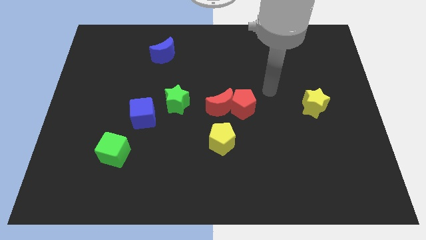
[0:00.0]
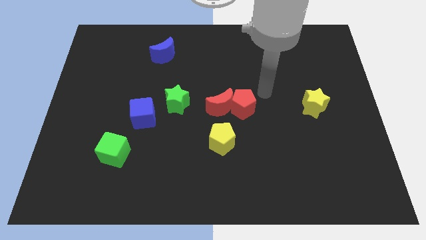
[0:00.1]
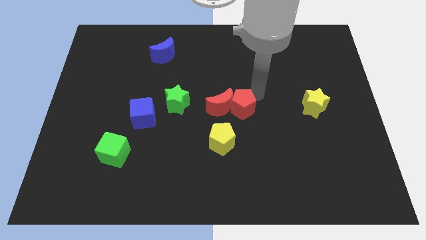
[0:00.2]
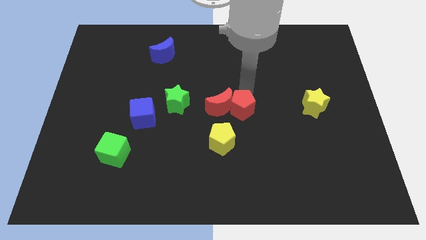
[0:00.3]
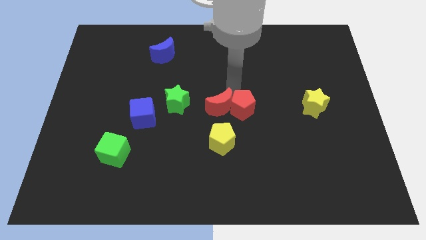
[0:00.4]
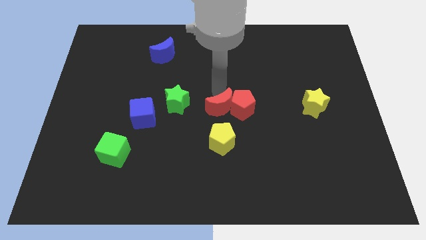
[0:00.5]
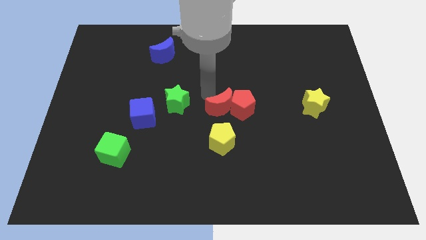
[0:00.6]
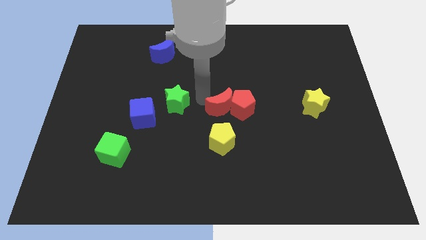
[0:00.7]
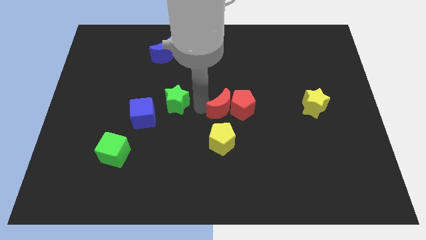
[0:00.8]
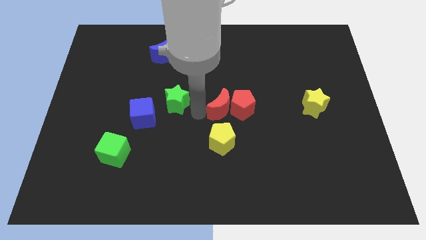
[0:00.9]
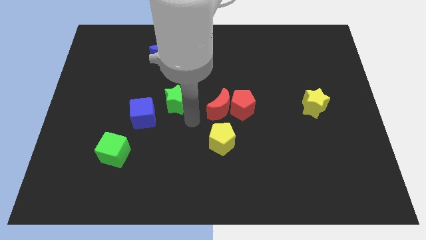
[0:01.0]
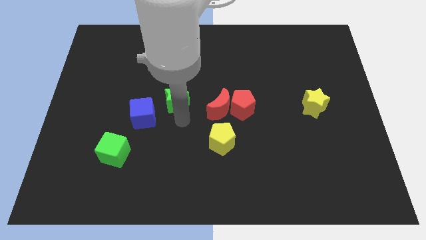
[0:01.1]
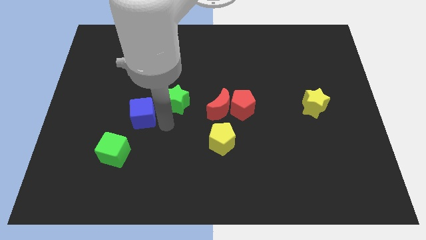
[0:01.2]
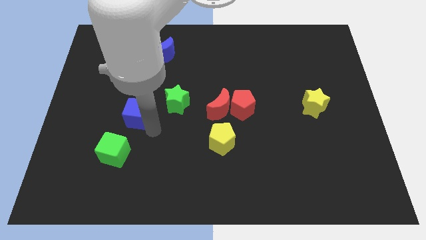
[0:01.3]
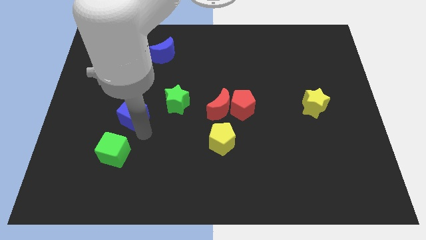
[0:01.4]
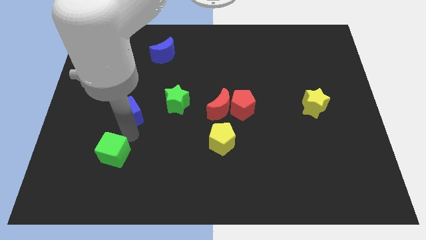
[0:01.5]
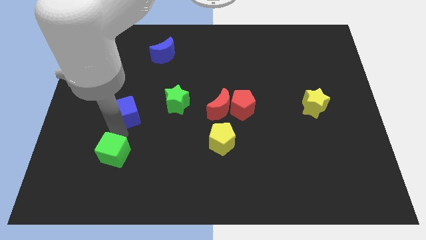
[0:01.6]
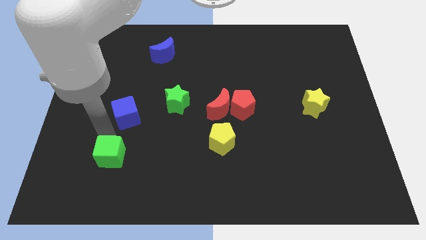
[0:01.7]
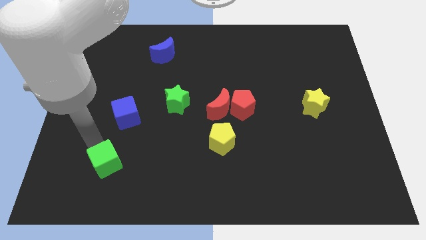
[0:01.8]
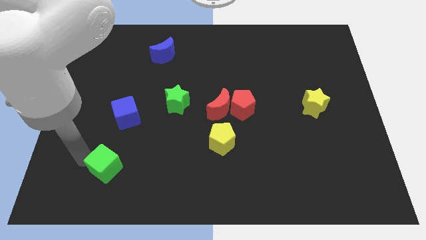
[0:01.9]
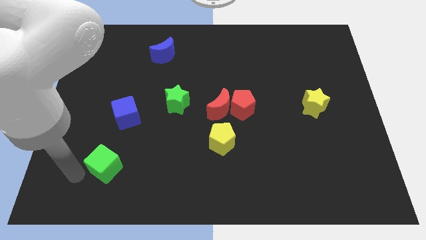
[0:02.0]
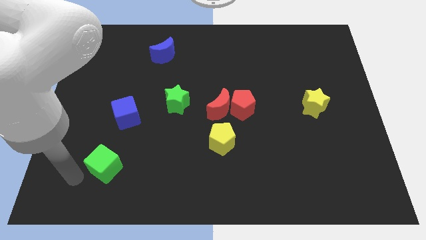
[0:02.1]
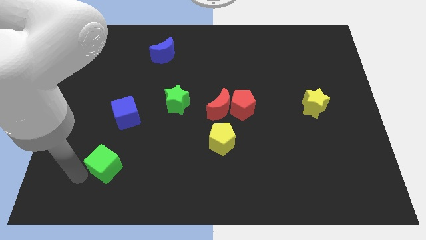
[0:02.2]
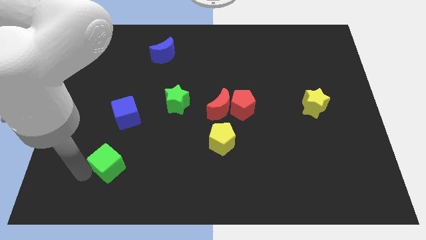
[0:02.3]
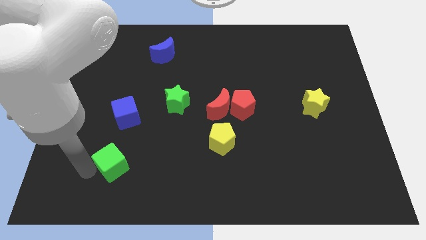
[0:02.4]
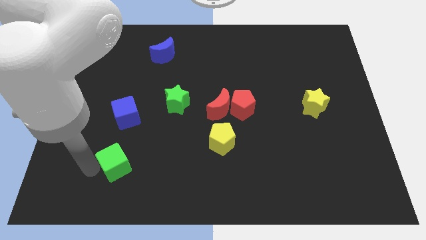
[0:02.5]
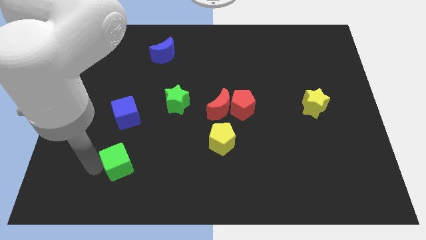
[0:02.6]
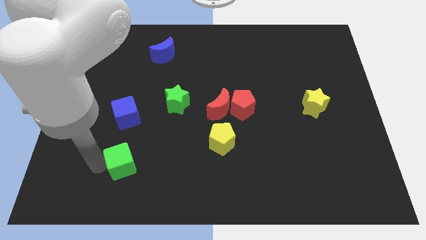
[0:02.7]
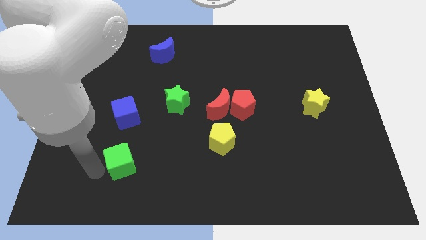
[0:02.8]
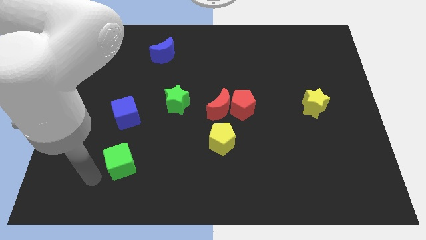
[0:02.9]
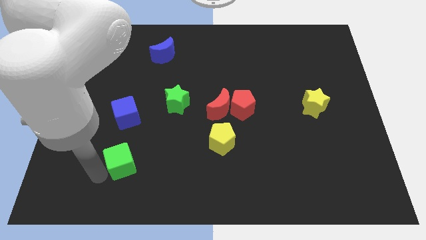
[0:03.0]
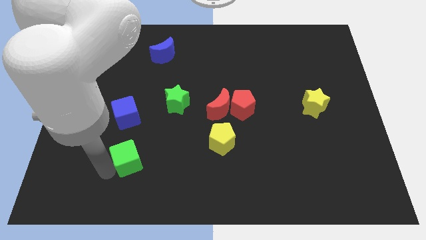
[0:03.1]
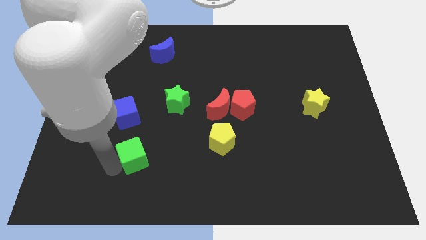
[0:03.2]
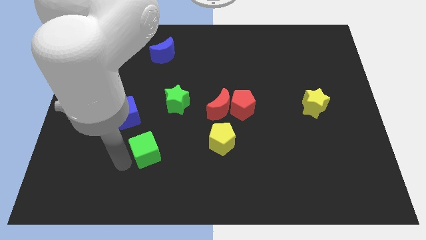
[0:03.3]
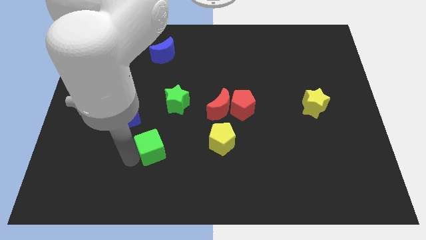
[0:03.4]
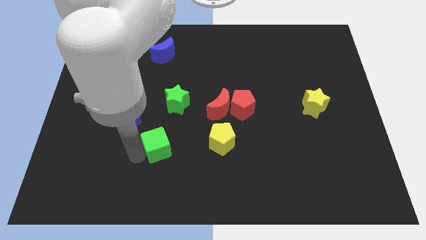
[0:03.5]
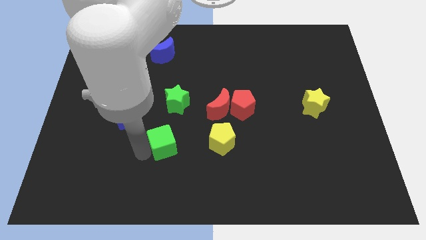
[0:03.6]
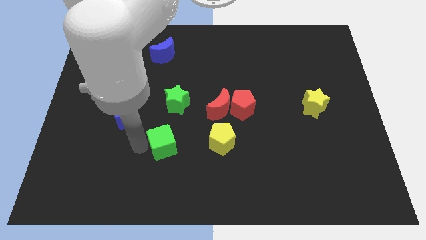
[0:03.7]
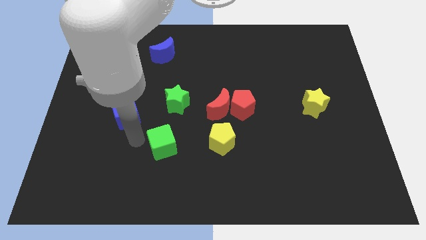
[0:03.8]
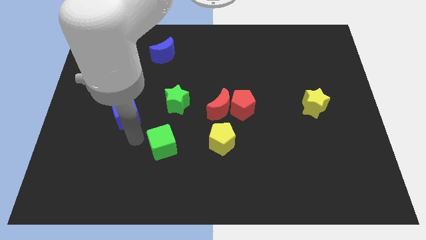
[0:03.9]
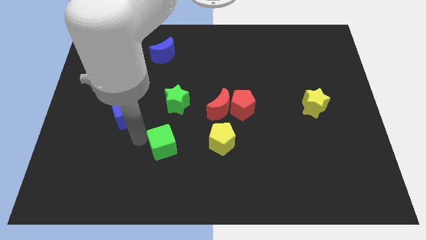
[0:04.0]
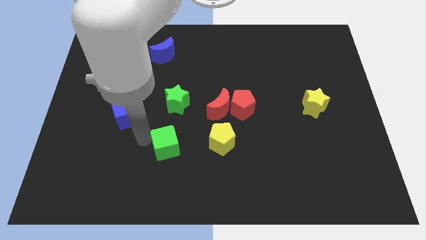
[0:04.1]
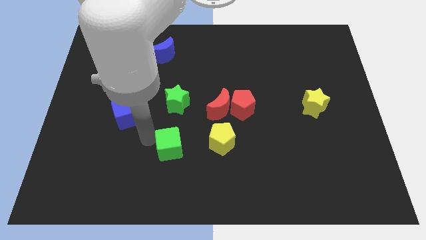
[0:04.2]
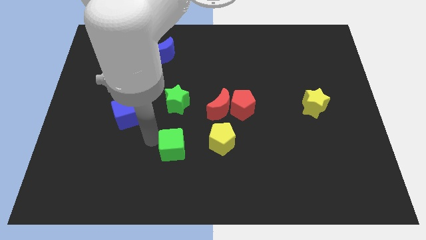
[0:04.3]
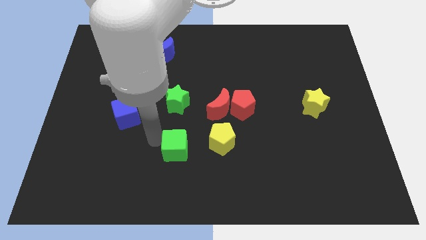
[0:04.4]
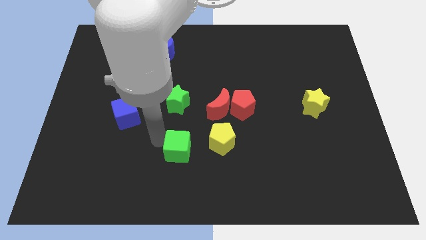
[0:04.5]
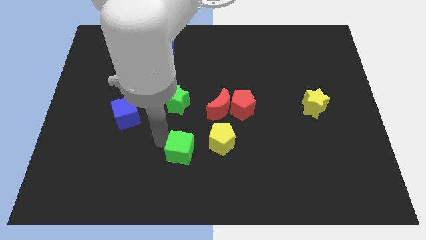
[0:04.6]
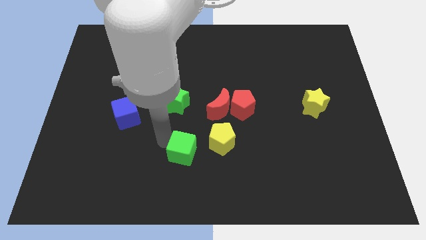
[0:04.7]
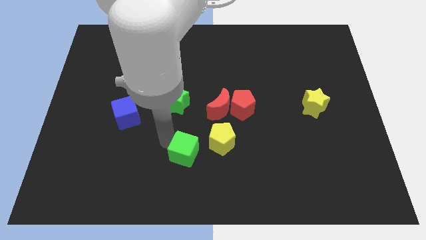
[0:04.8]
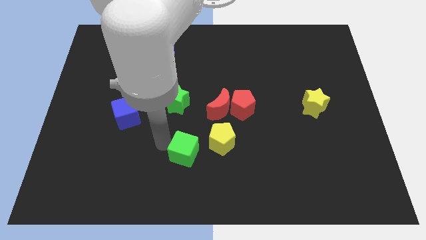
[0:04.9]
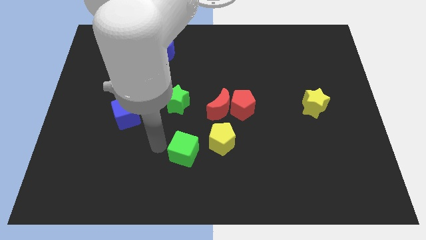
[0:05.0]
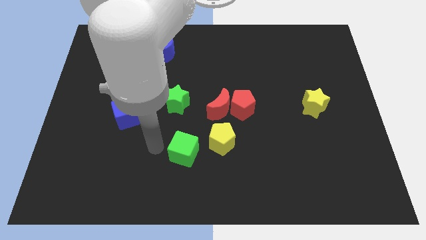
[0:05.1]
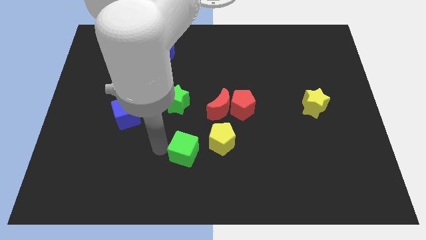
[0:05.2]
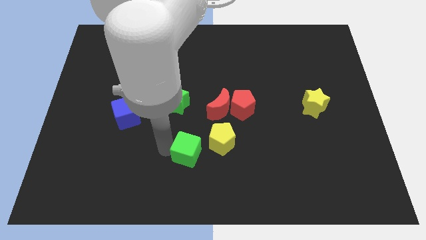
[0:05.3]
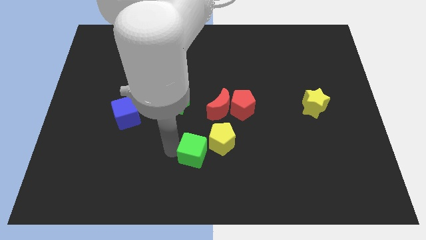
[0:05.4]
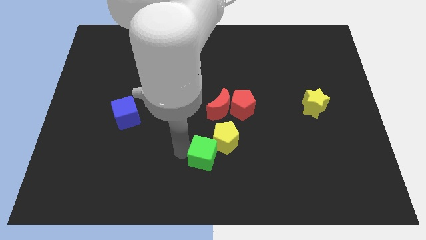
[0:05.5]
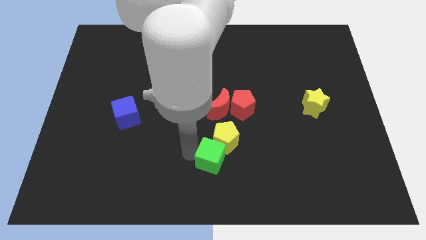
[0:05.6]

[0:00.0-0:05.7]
move the green cube to the right

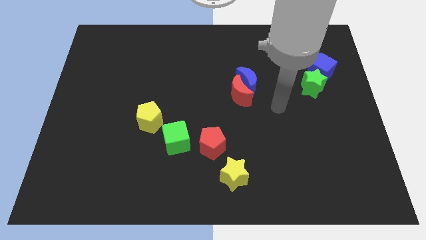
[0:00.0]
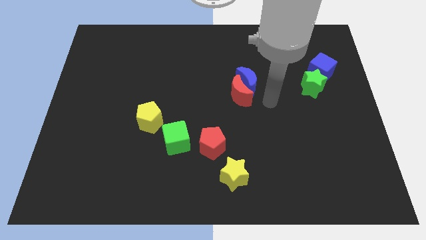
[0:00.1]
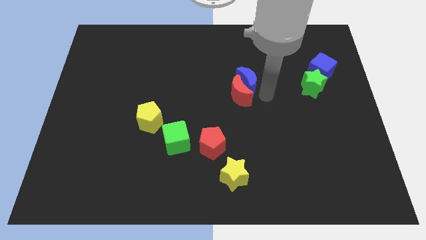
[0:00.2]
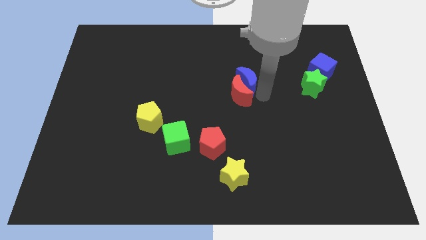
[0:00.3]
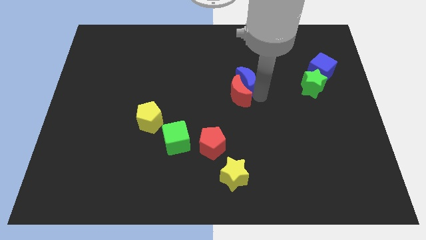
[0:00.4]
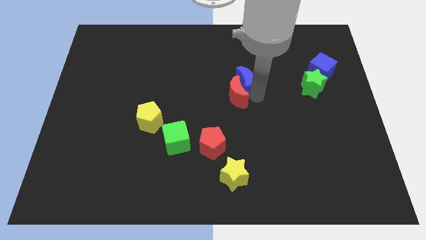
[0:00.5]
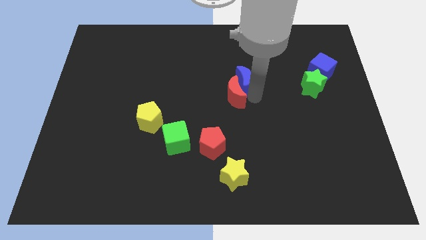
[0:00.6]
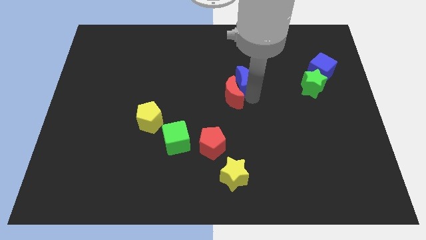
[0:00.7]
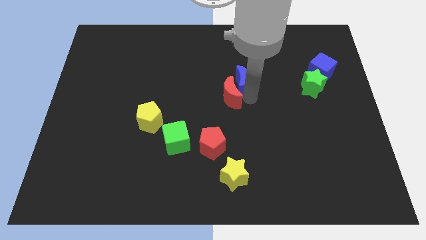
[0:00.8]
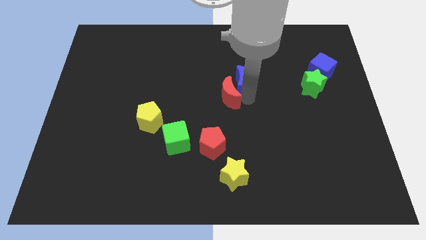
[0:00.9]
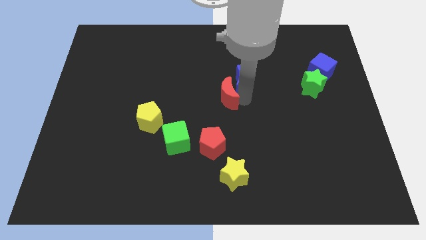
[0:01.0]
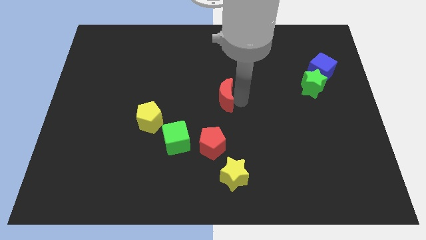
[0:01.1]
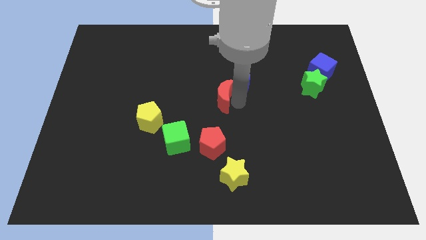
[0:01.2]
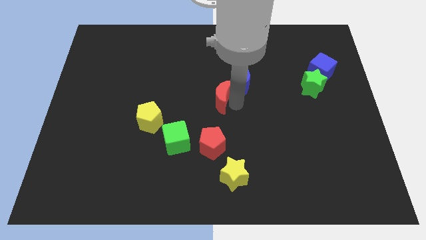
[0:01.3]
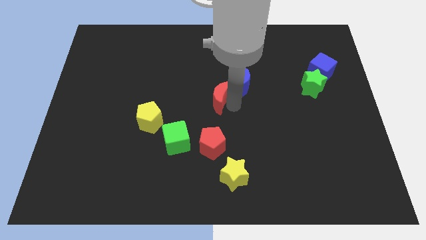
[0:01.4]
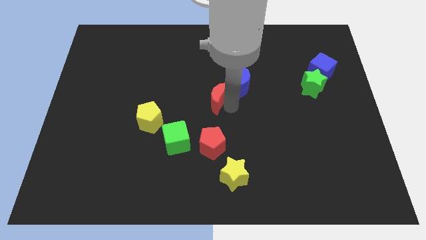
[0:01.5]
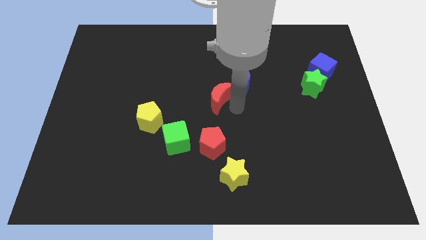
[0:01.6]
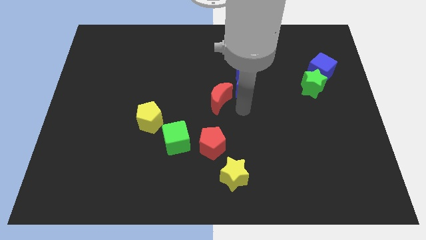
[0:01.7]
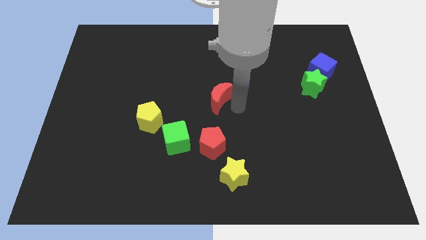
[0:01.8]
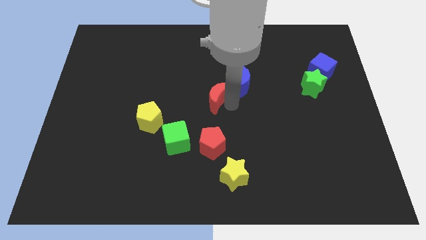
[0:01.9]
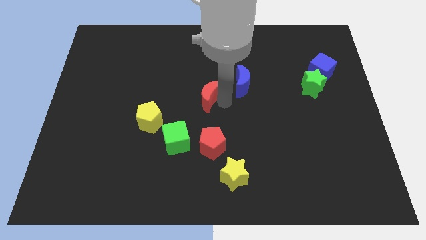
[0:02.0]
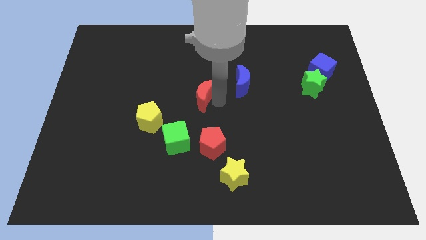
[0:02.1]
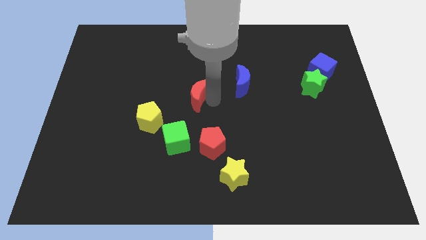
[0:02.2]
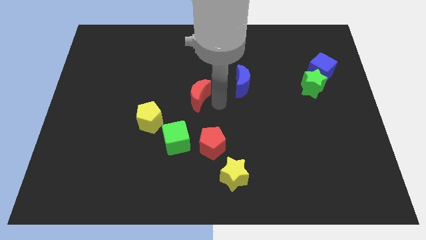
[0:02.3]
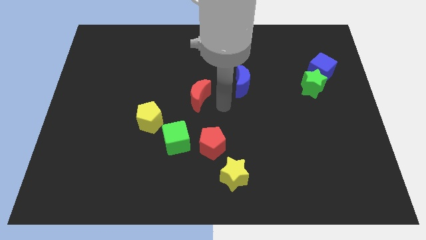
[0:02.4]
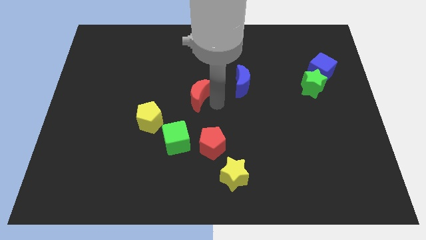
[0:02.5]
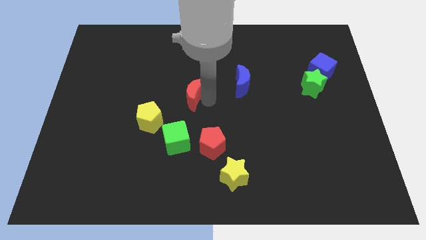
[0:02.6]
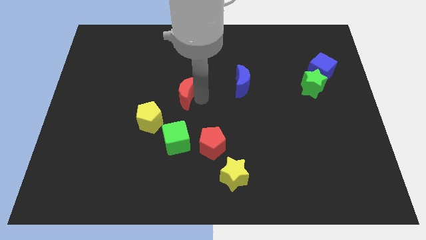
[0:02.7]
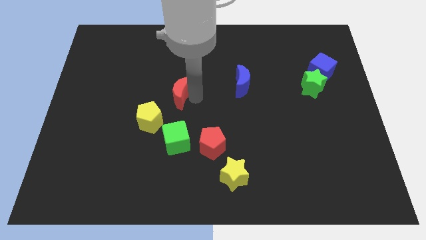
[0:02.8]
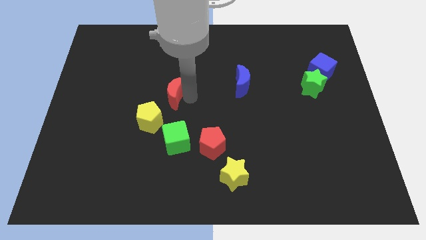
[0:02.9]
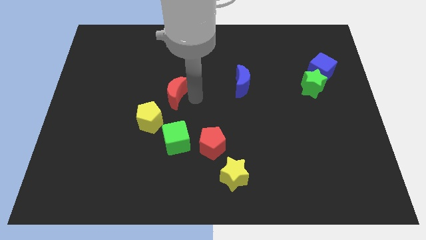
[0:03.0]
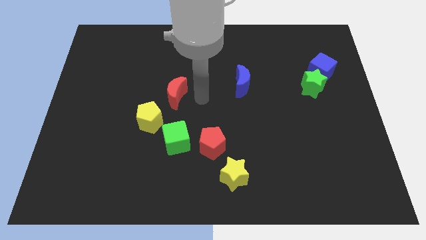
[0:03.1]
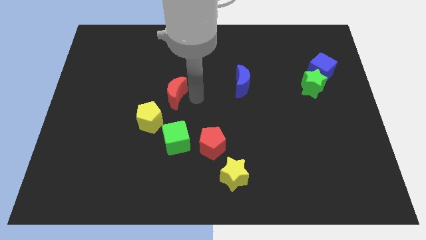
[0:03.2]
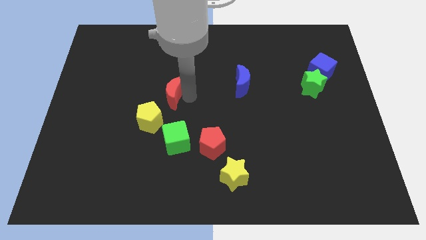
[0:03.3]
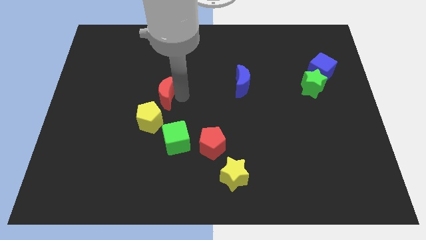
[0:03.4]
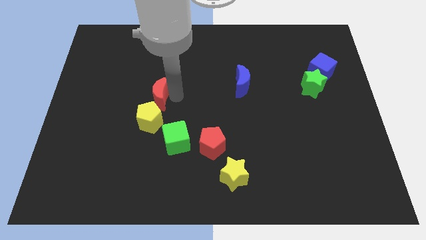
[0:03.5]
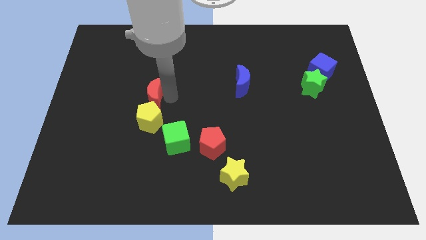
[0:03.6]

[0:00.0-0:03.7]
push the red moon to the left
